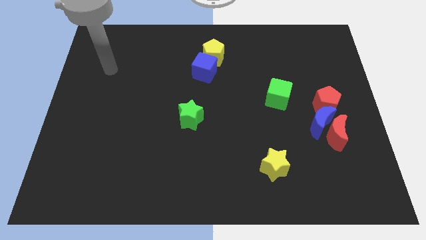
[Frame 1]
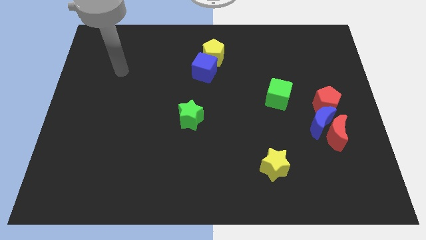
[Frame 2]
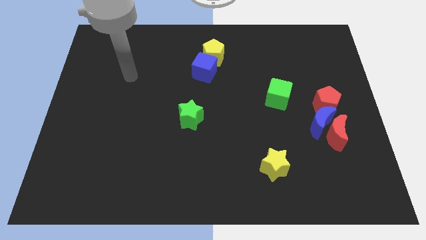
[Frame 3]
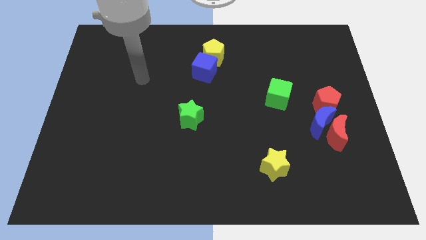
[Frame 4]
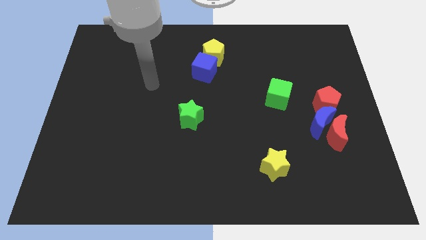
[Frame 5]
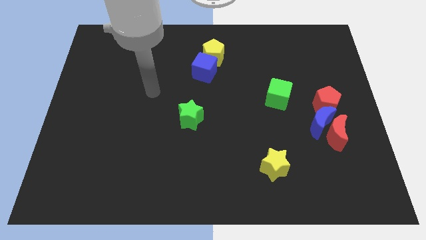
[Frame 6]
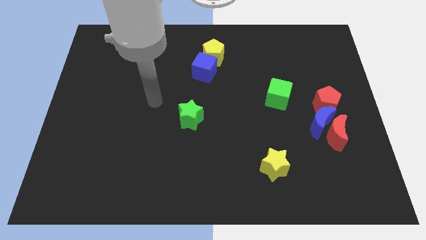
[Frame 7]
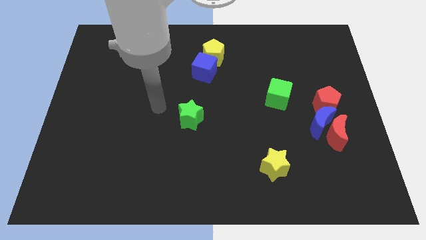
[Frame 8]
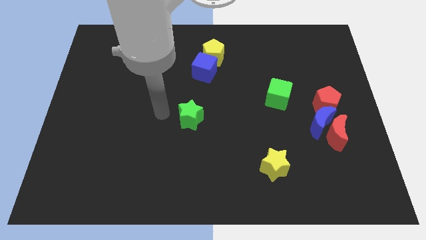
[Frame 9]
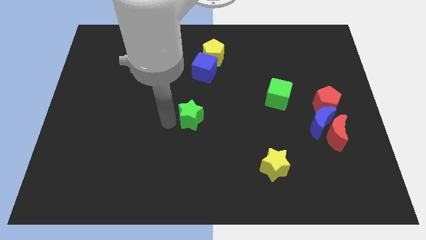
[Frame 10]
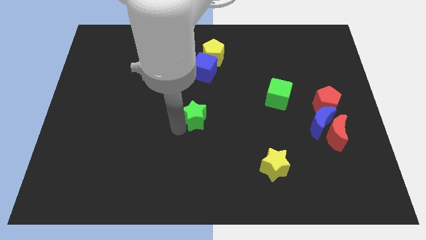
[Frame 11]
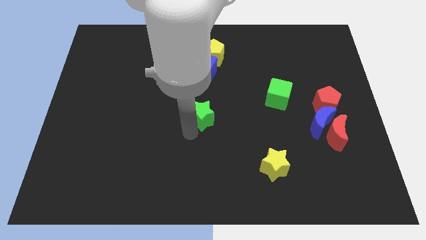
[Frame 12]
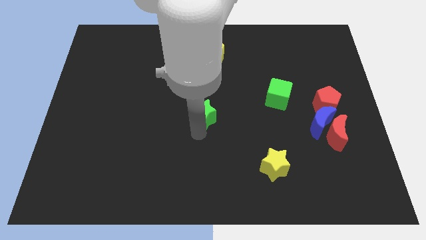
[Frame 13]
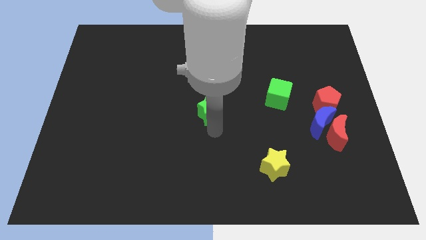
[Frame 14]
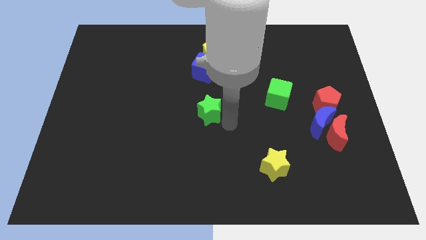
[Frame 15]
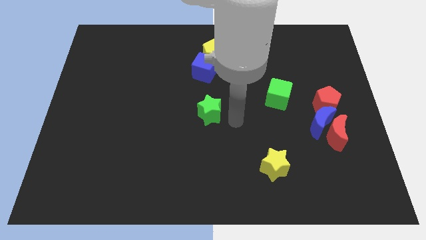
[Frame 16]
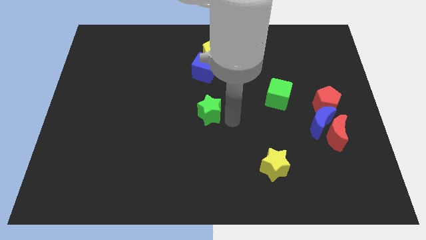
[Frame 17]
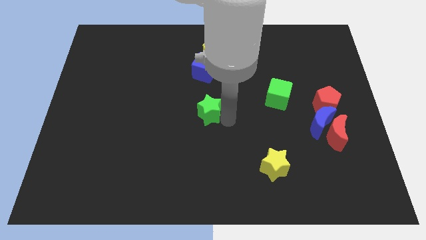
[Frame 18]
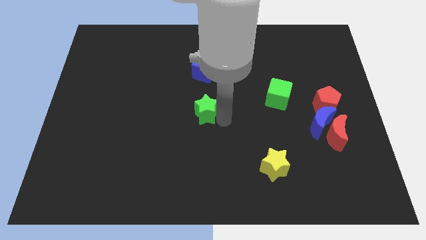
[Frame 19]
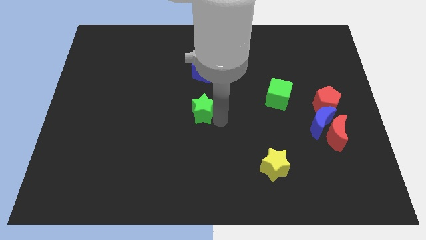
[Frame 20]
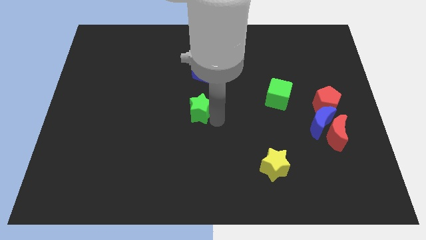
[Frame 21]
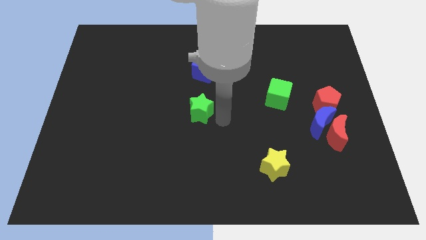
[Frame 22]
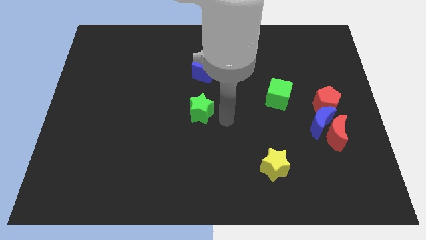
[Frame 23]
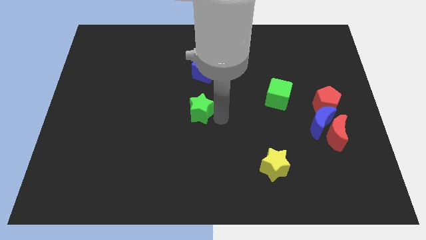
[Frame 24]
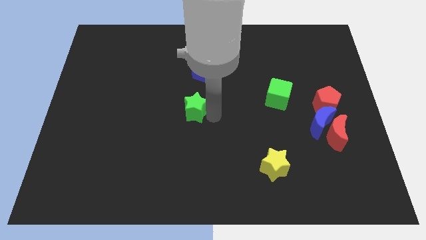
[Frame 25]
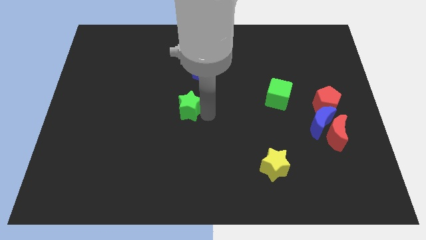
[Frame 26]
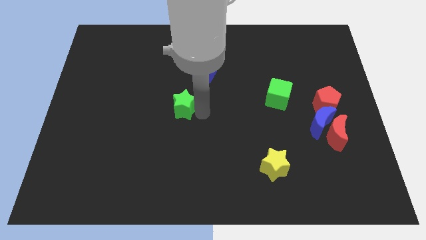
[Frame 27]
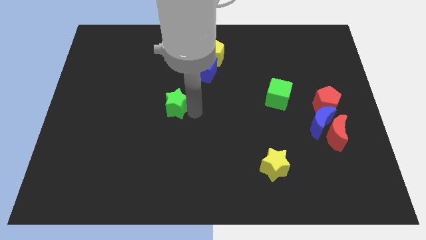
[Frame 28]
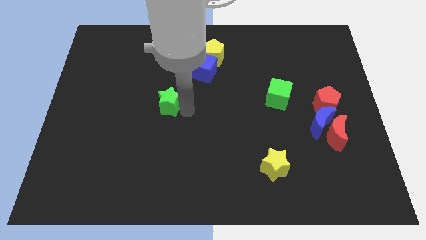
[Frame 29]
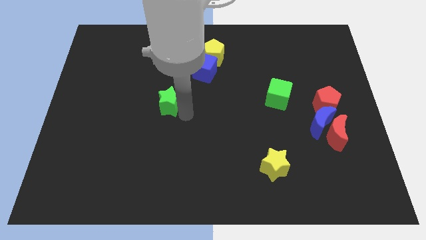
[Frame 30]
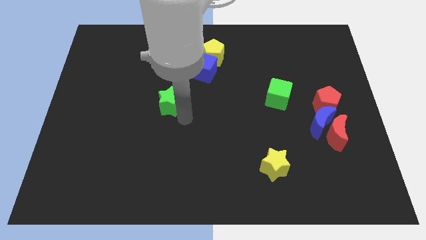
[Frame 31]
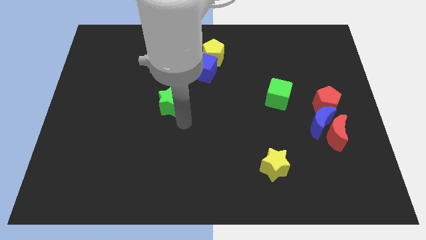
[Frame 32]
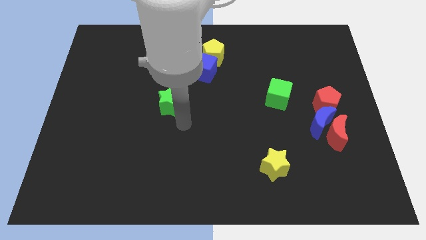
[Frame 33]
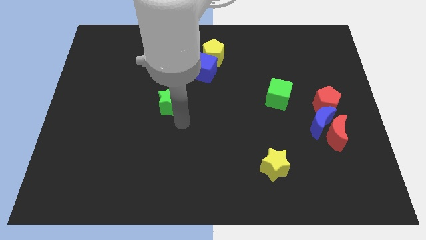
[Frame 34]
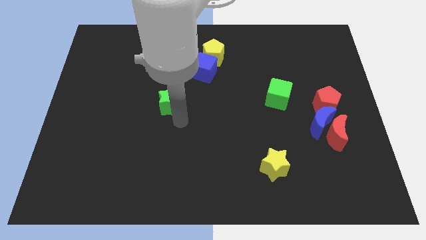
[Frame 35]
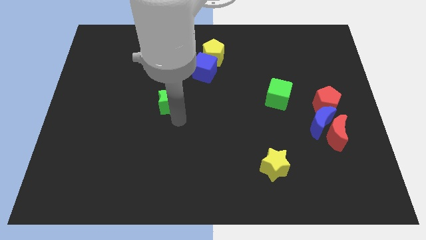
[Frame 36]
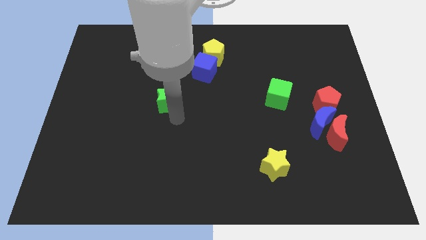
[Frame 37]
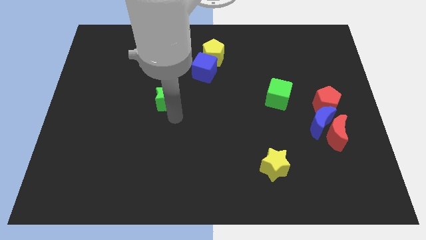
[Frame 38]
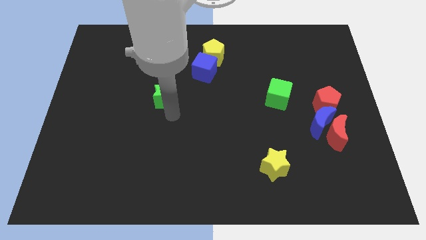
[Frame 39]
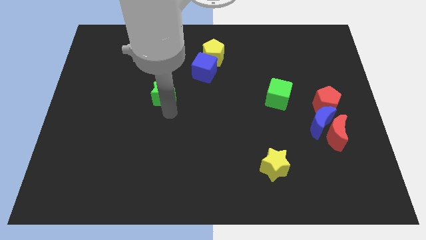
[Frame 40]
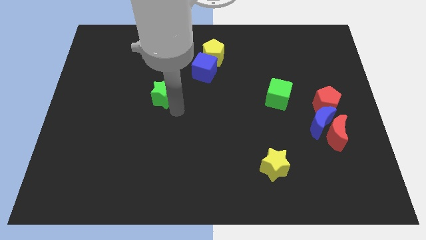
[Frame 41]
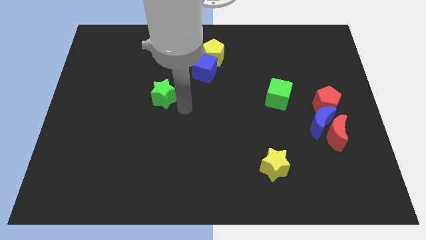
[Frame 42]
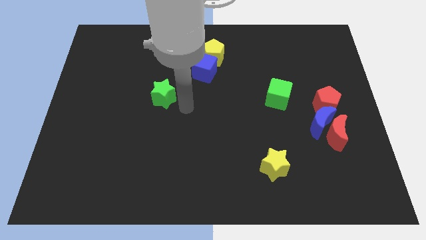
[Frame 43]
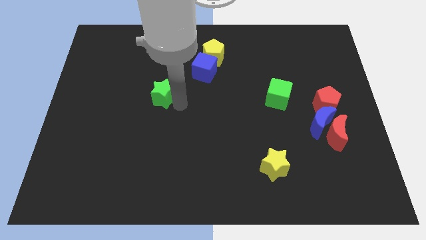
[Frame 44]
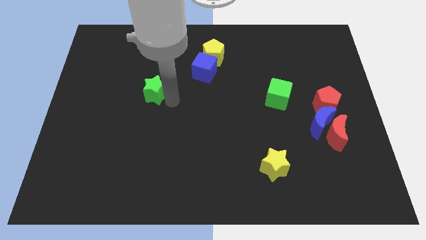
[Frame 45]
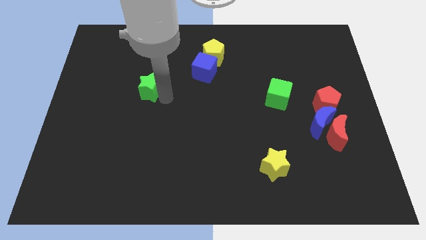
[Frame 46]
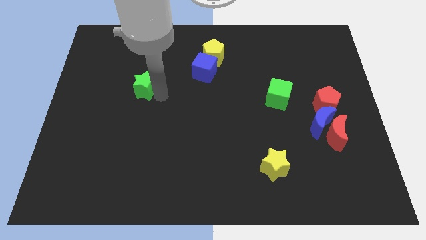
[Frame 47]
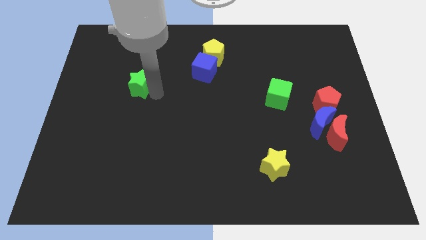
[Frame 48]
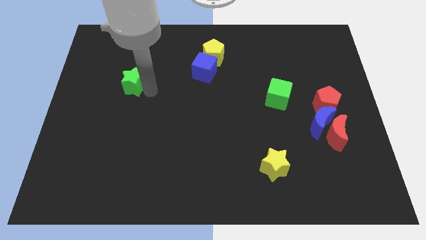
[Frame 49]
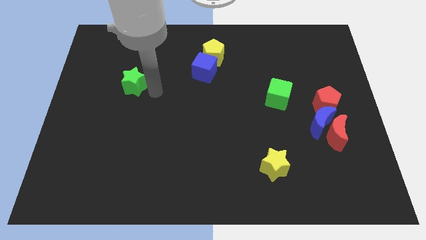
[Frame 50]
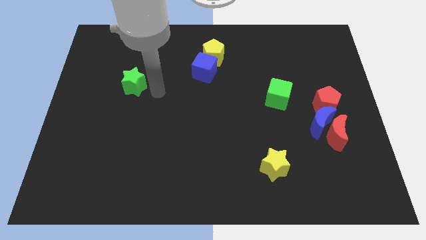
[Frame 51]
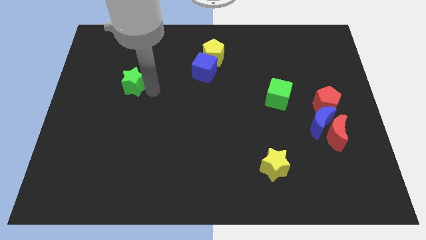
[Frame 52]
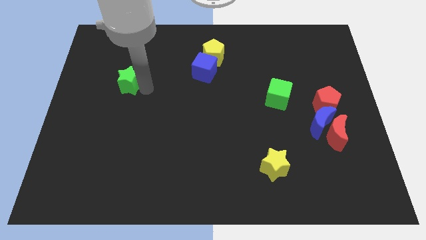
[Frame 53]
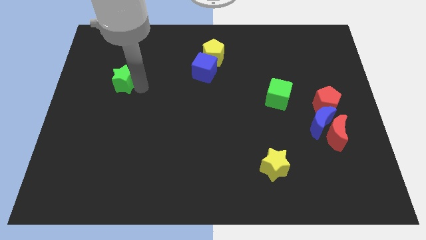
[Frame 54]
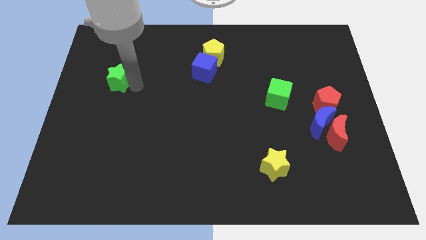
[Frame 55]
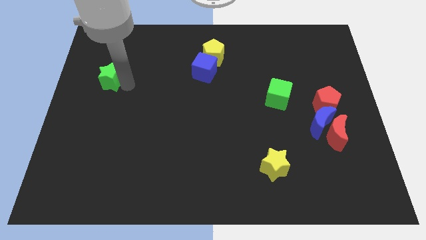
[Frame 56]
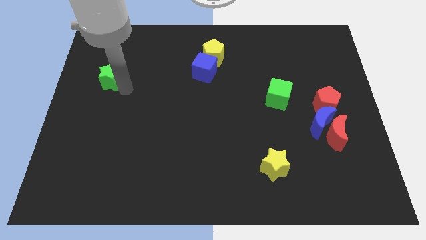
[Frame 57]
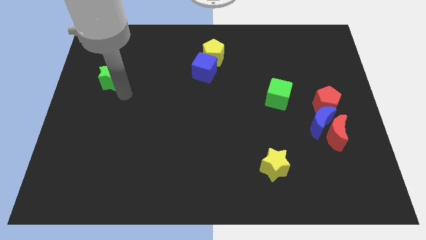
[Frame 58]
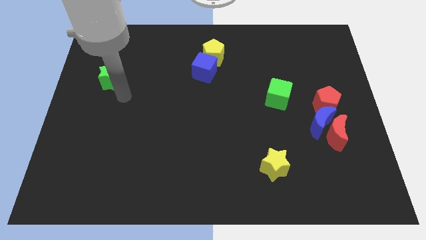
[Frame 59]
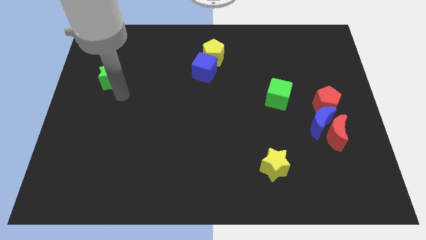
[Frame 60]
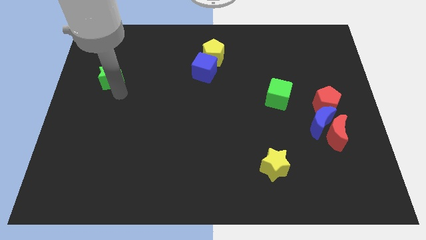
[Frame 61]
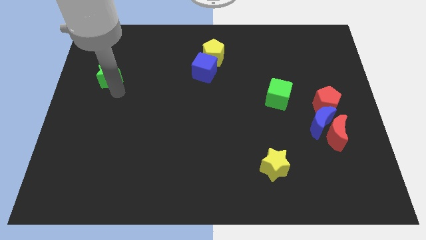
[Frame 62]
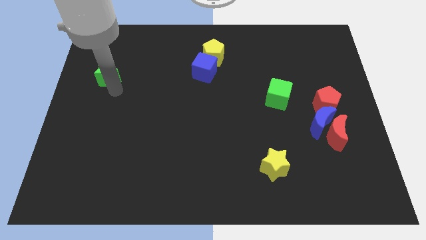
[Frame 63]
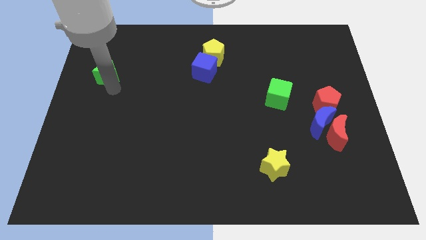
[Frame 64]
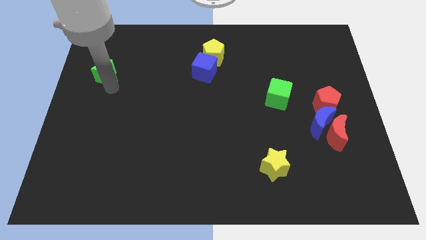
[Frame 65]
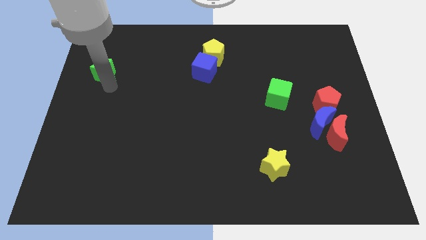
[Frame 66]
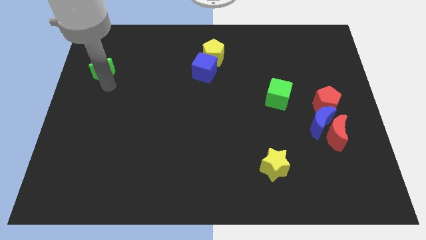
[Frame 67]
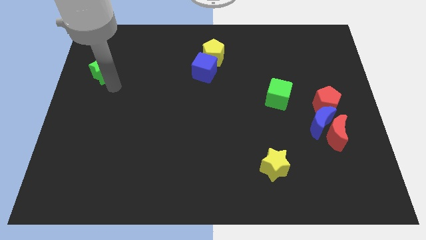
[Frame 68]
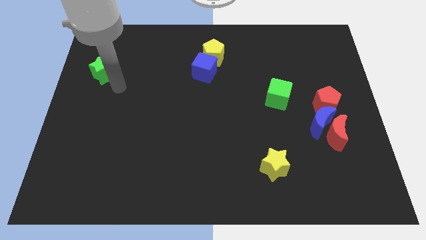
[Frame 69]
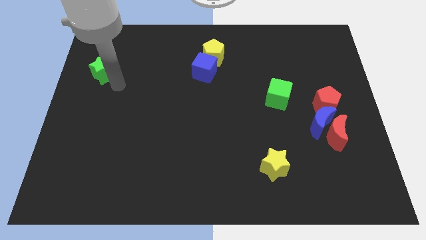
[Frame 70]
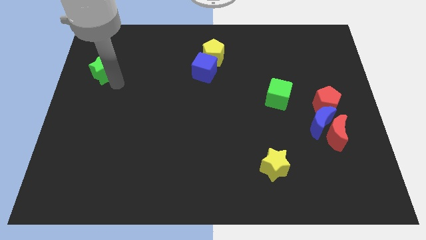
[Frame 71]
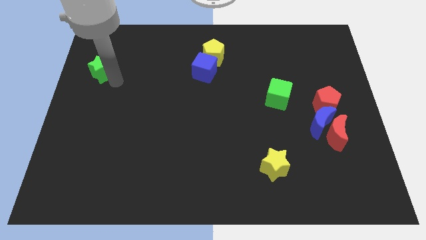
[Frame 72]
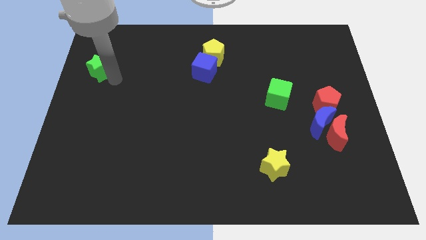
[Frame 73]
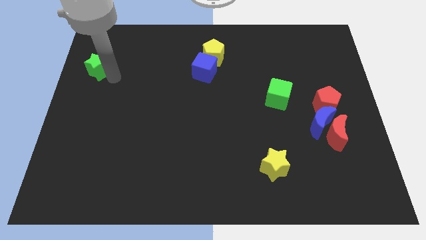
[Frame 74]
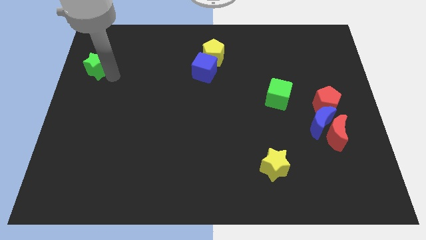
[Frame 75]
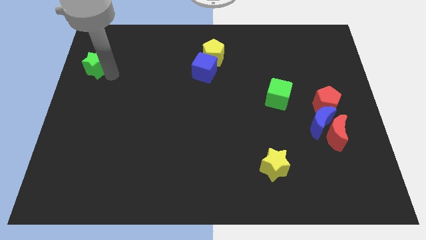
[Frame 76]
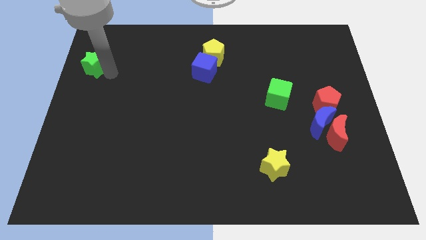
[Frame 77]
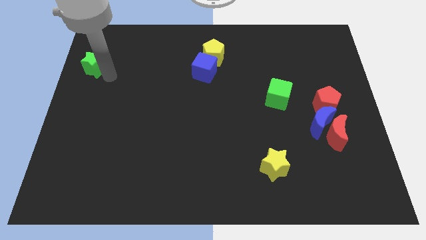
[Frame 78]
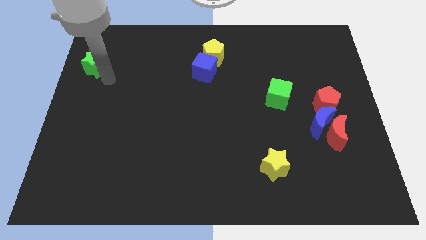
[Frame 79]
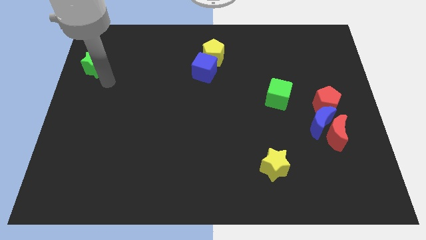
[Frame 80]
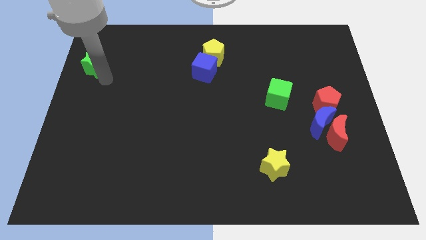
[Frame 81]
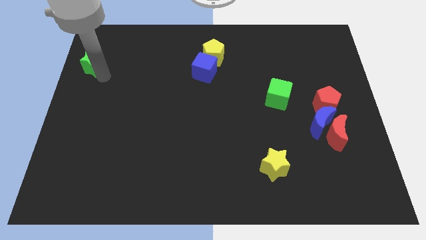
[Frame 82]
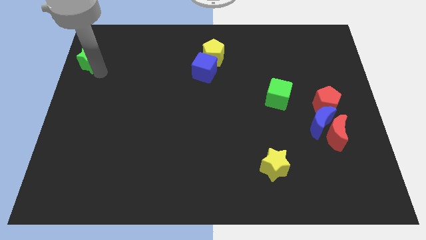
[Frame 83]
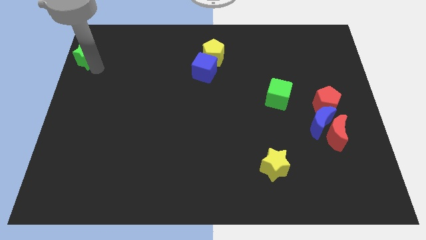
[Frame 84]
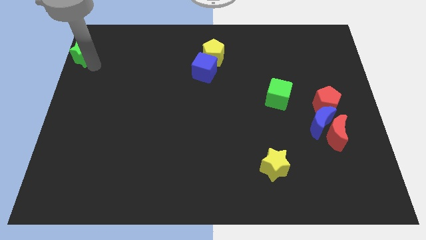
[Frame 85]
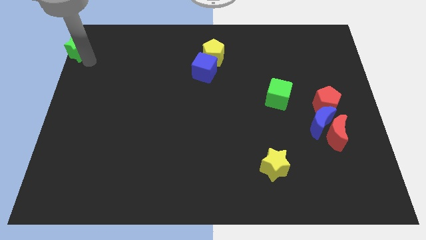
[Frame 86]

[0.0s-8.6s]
move the green star to the upper left corner
